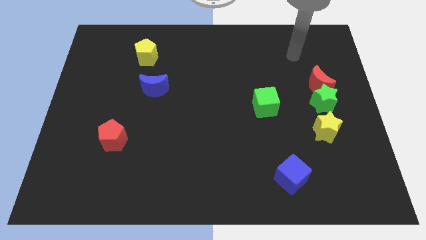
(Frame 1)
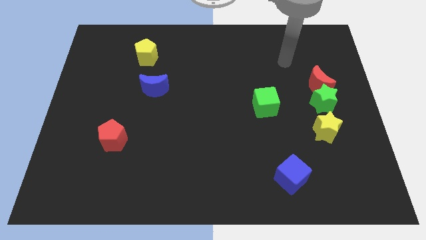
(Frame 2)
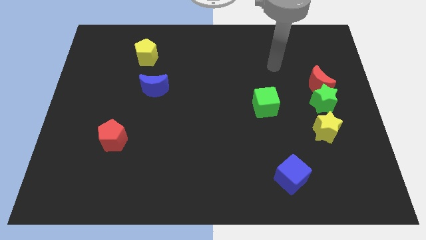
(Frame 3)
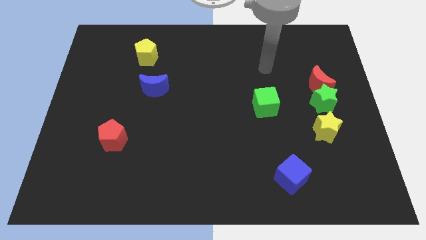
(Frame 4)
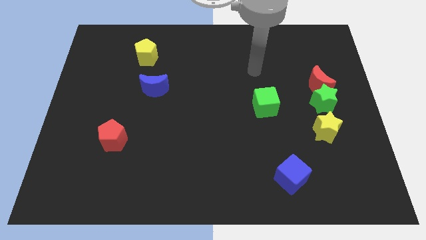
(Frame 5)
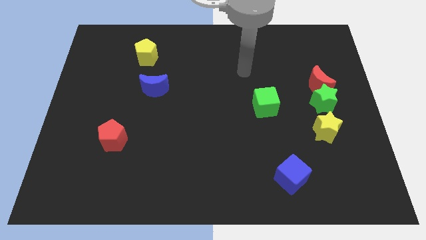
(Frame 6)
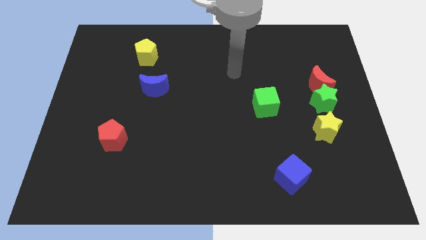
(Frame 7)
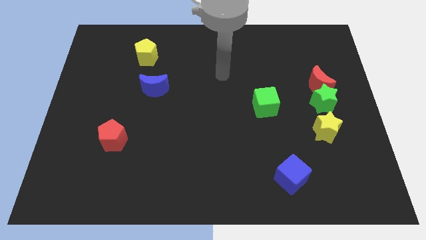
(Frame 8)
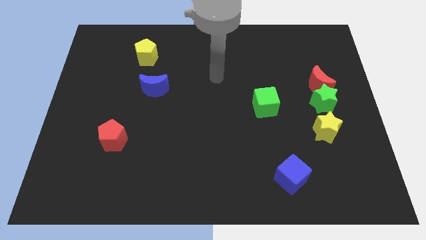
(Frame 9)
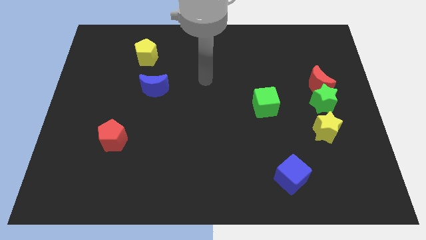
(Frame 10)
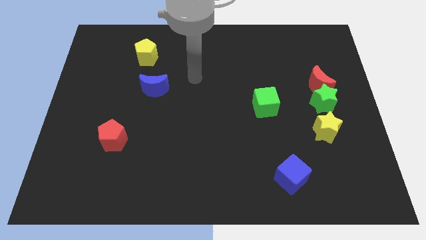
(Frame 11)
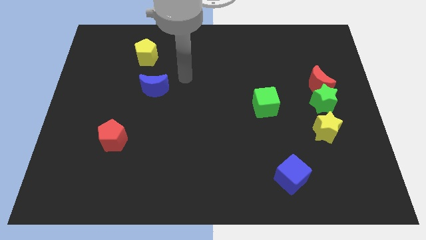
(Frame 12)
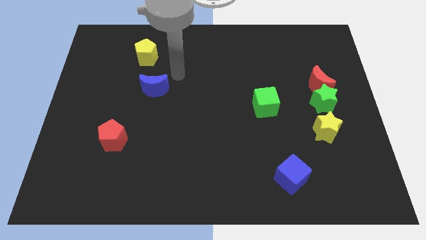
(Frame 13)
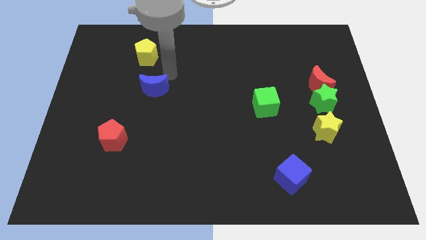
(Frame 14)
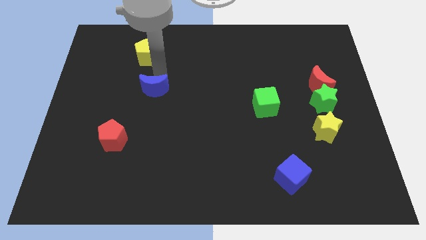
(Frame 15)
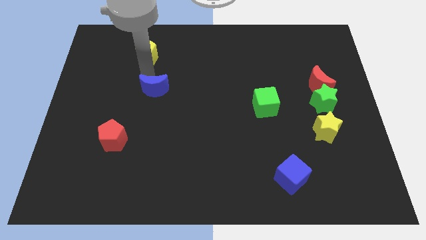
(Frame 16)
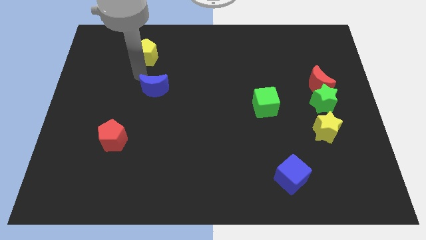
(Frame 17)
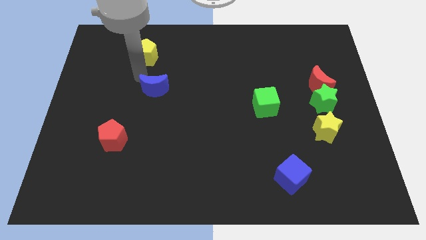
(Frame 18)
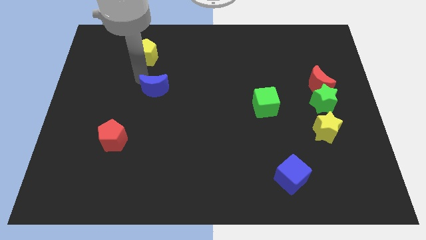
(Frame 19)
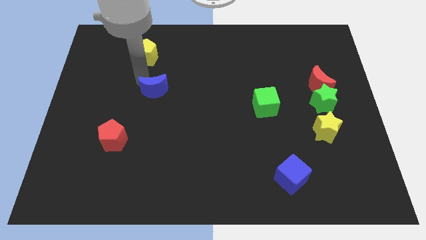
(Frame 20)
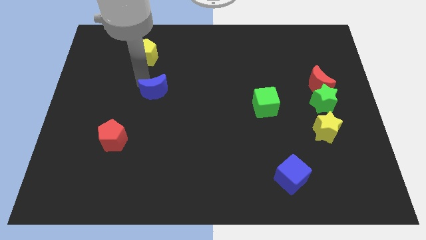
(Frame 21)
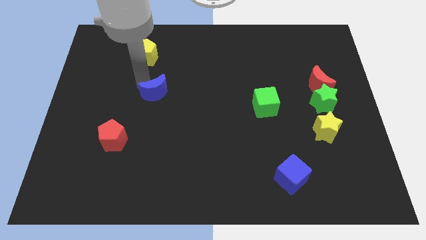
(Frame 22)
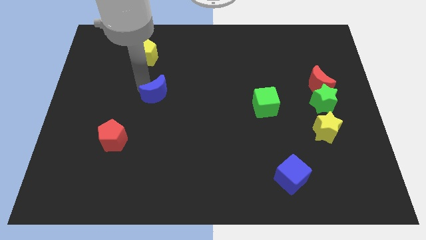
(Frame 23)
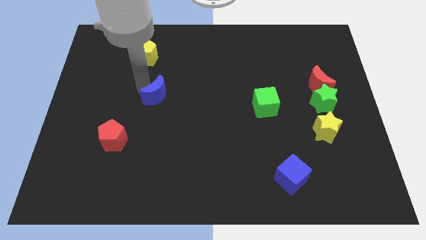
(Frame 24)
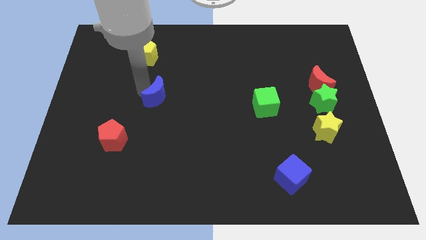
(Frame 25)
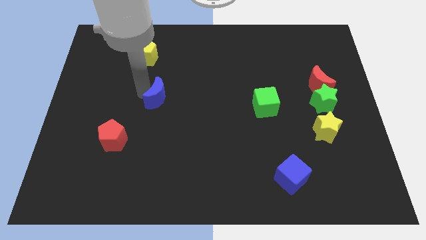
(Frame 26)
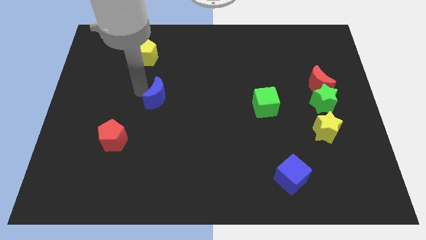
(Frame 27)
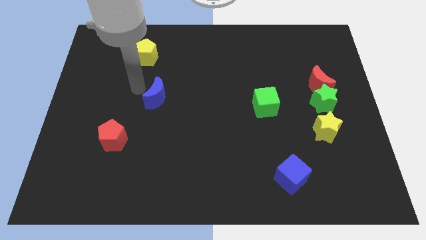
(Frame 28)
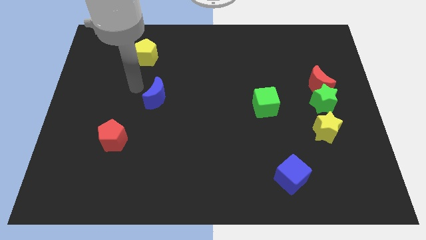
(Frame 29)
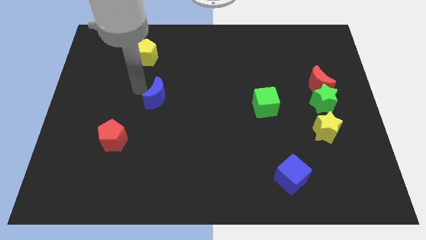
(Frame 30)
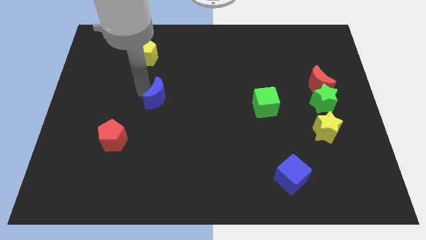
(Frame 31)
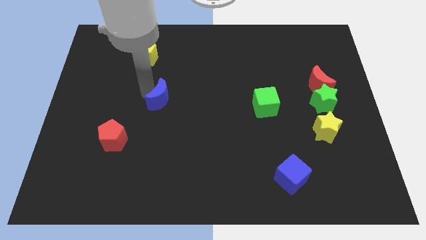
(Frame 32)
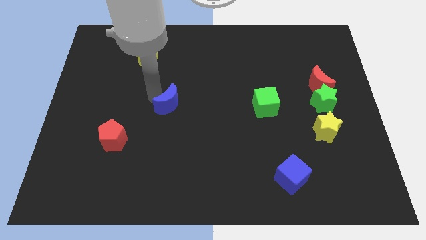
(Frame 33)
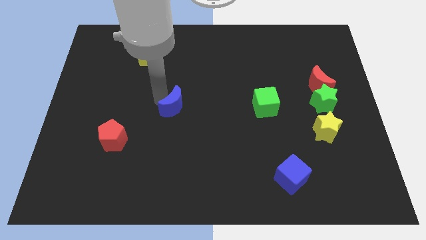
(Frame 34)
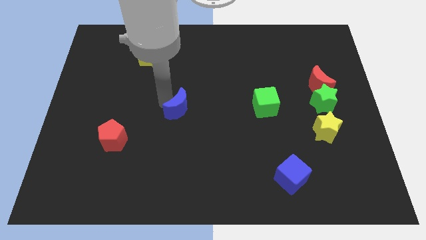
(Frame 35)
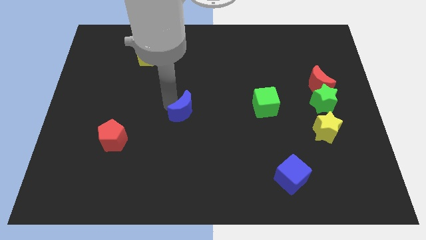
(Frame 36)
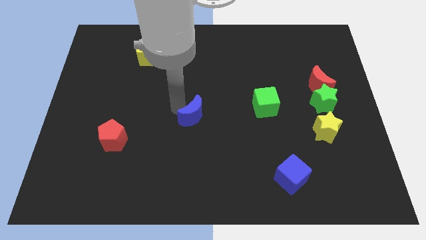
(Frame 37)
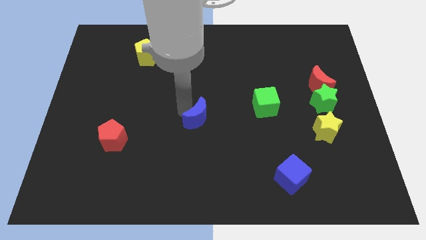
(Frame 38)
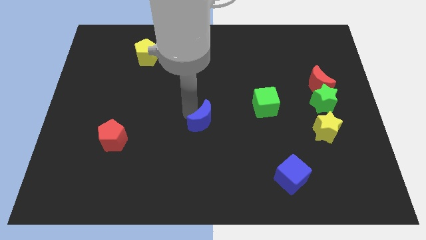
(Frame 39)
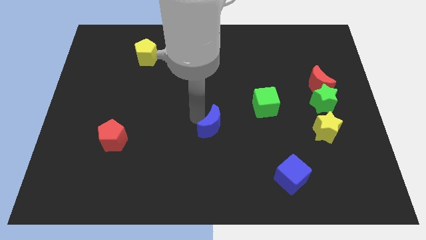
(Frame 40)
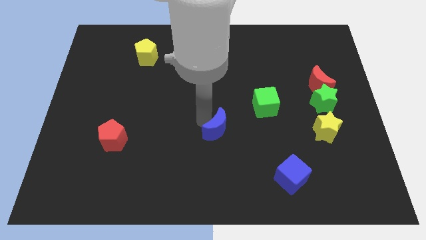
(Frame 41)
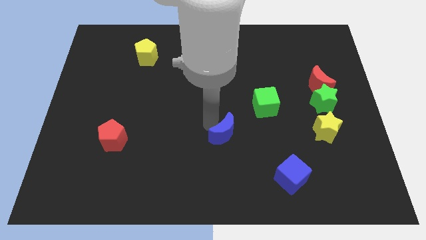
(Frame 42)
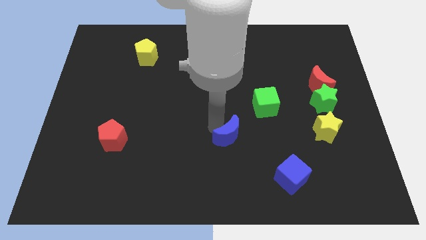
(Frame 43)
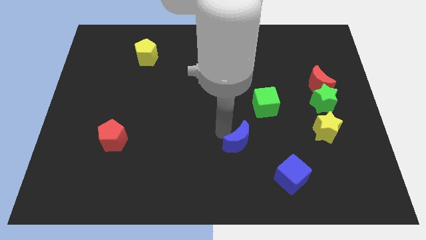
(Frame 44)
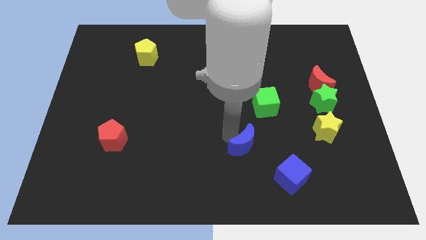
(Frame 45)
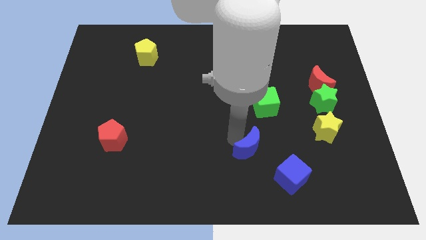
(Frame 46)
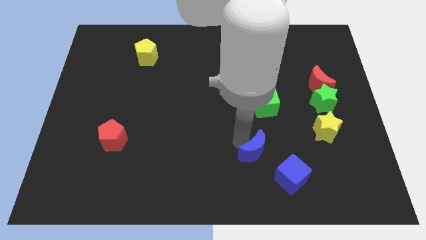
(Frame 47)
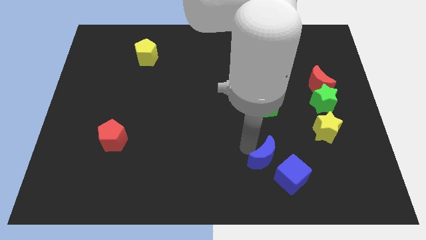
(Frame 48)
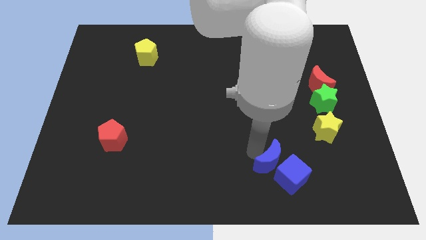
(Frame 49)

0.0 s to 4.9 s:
put the blue moon towards the blue cube

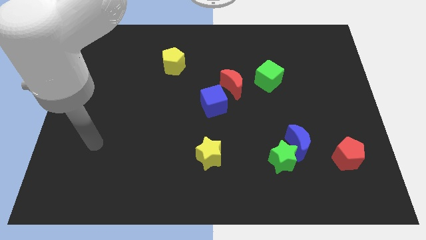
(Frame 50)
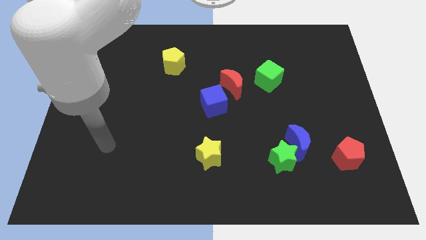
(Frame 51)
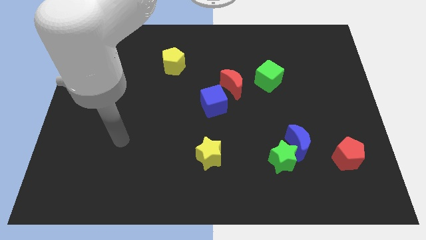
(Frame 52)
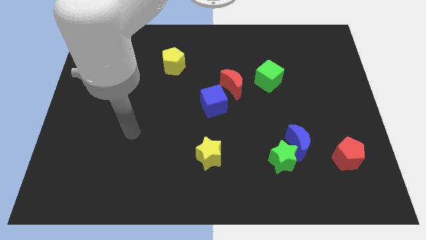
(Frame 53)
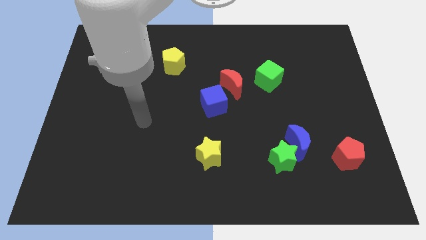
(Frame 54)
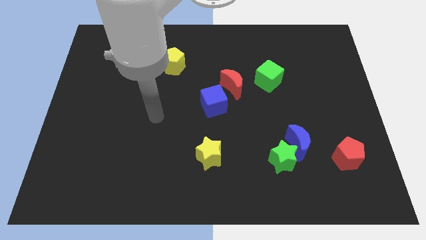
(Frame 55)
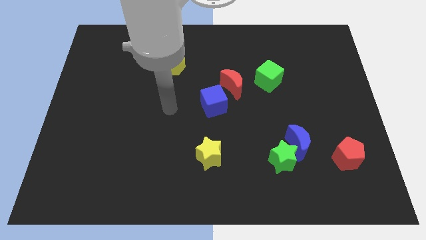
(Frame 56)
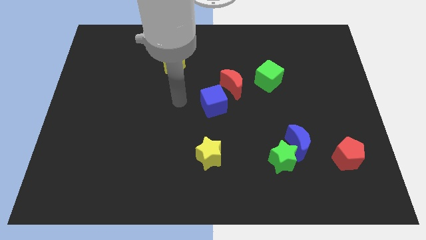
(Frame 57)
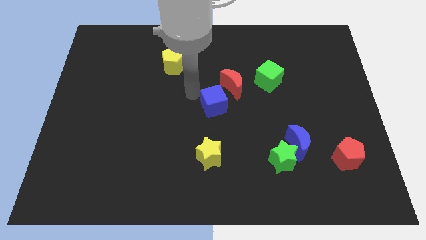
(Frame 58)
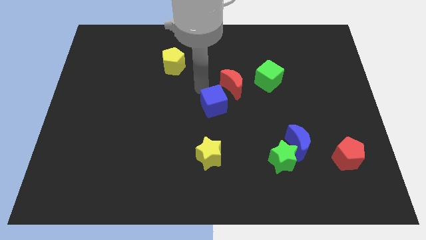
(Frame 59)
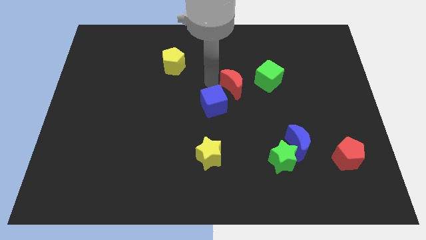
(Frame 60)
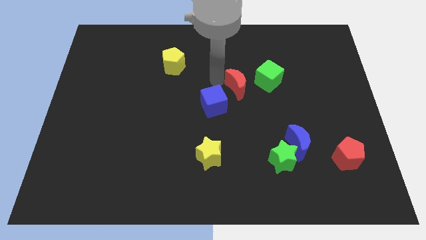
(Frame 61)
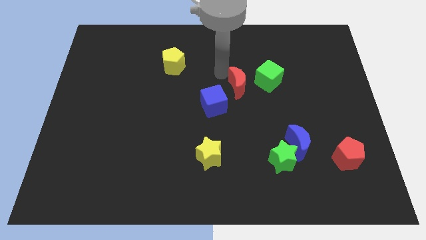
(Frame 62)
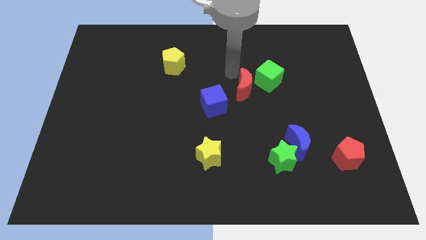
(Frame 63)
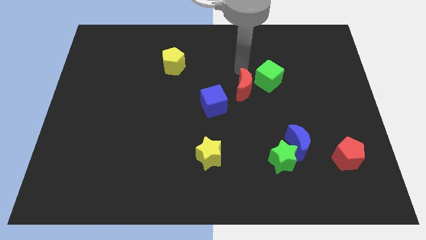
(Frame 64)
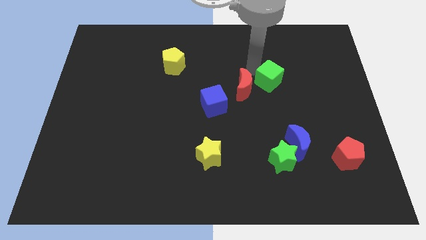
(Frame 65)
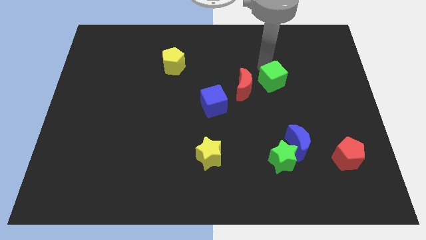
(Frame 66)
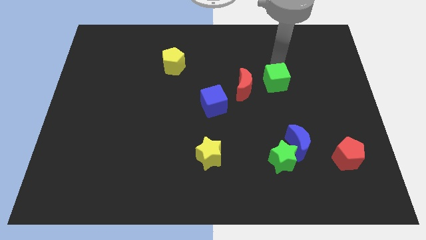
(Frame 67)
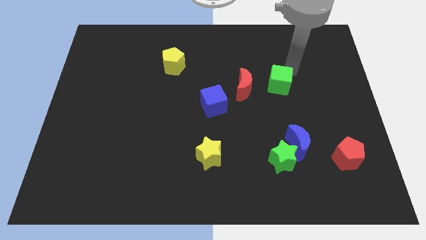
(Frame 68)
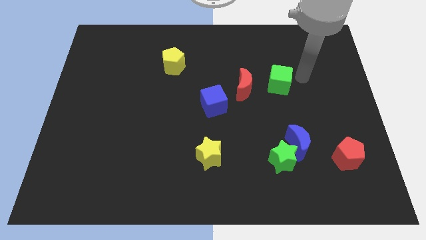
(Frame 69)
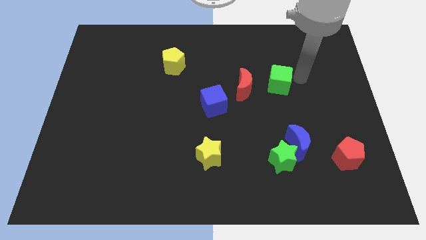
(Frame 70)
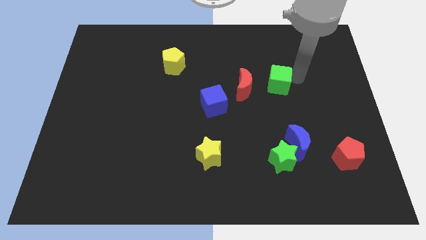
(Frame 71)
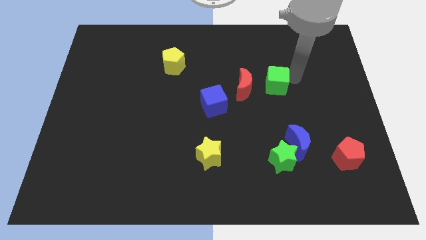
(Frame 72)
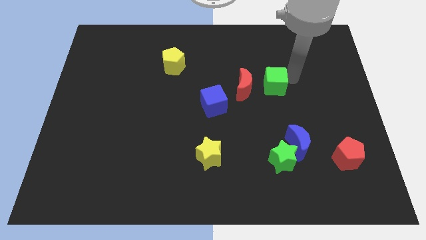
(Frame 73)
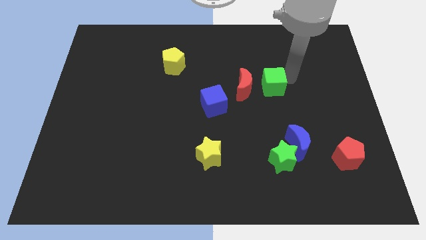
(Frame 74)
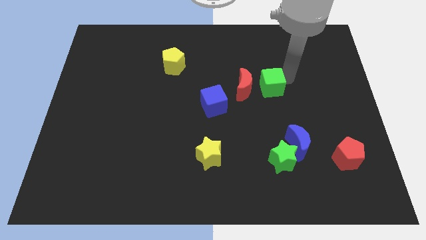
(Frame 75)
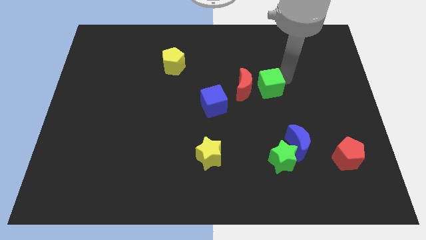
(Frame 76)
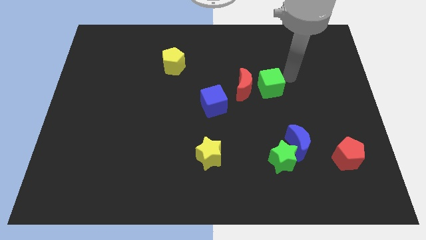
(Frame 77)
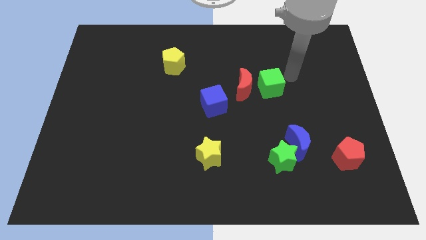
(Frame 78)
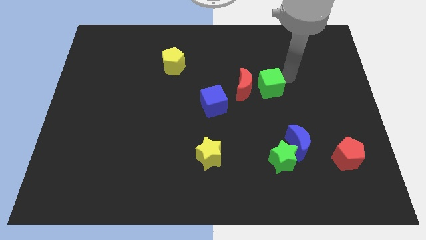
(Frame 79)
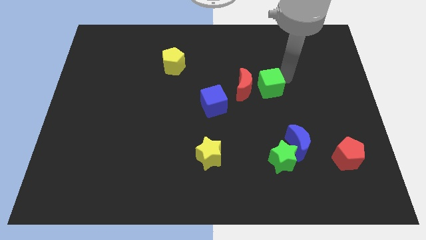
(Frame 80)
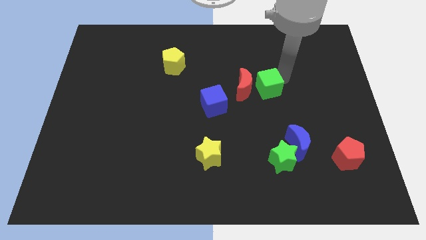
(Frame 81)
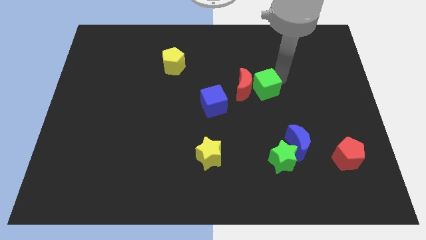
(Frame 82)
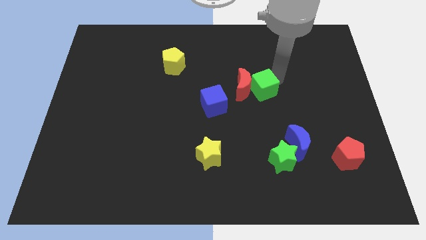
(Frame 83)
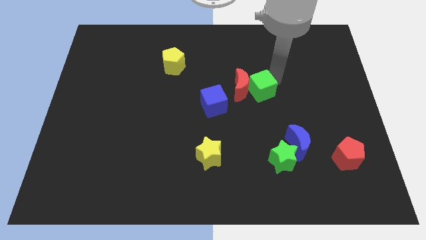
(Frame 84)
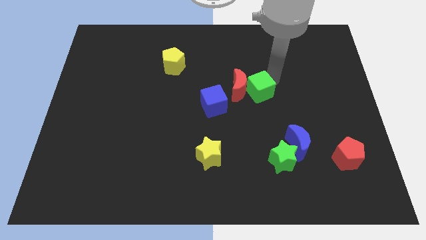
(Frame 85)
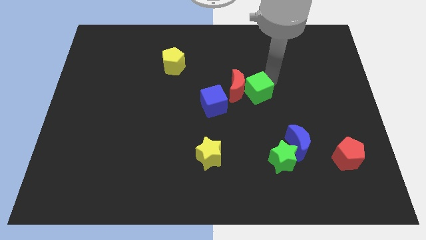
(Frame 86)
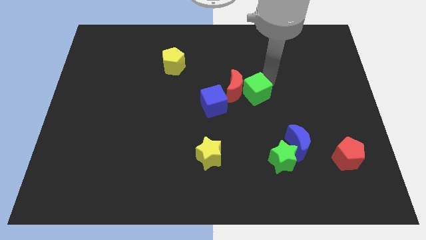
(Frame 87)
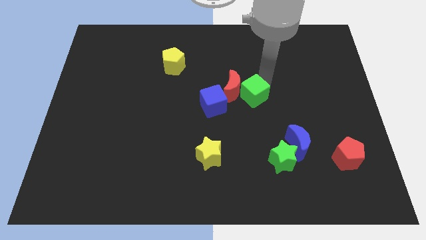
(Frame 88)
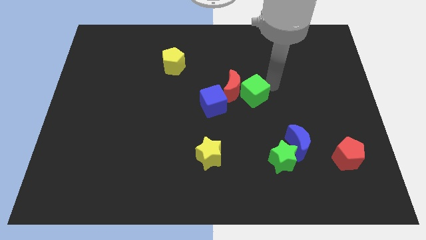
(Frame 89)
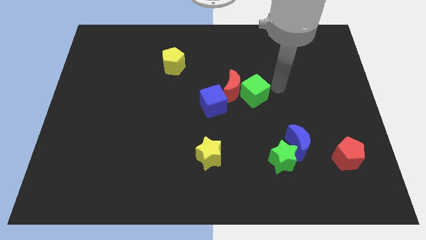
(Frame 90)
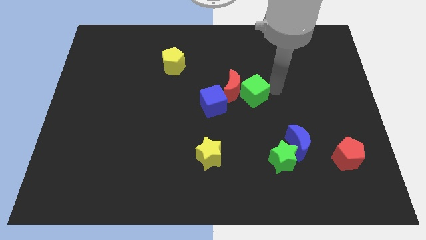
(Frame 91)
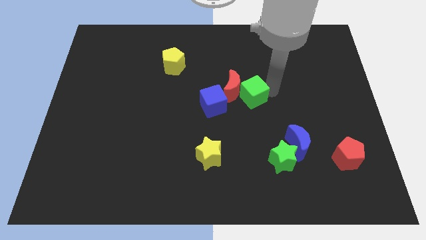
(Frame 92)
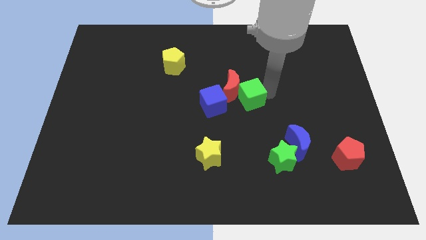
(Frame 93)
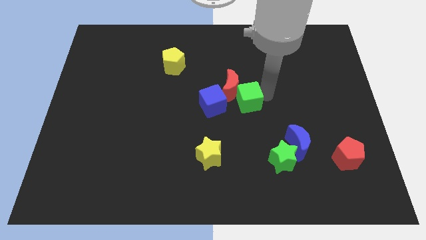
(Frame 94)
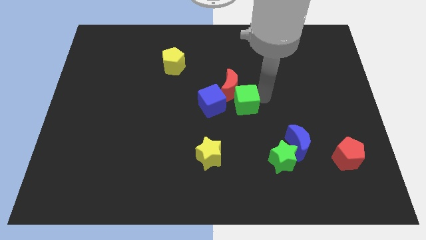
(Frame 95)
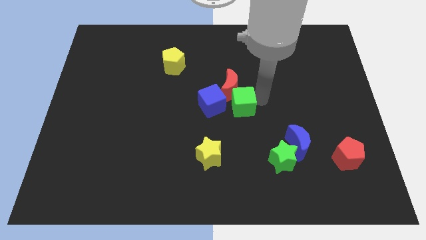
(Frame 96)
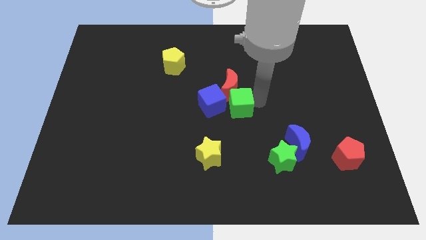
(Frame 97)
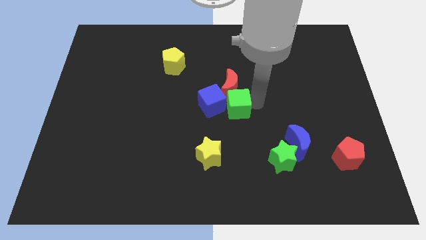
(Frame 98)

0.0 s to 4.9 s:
move the green cube close to the blue cube
